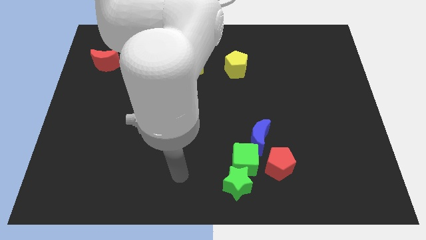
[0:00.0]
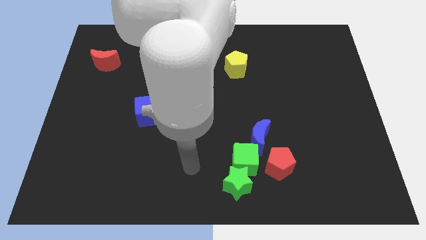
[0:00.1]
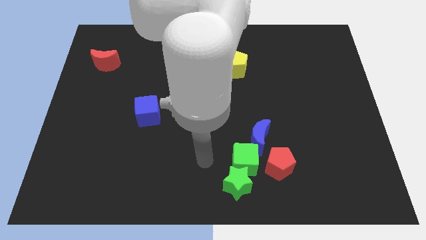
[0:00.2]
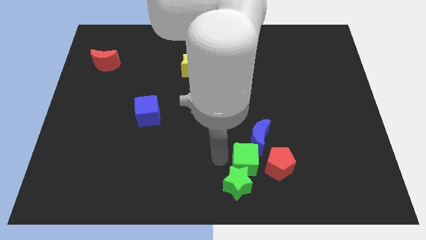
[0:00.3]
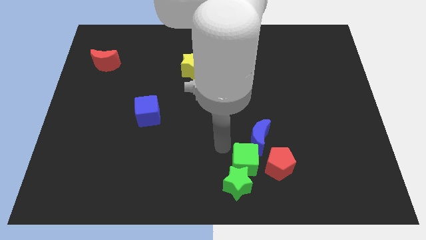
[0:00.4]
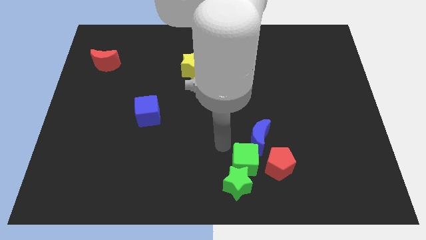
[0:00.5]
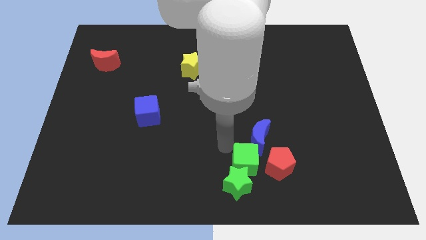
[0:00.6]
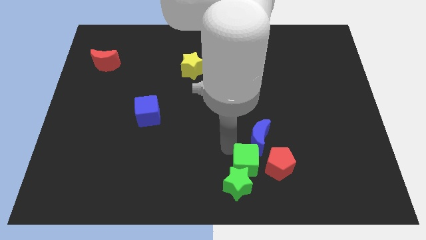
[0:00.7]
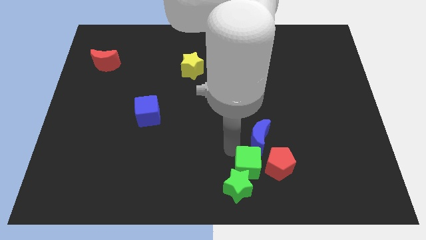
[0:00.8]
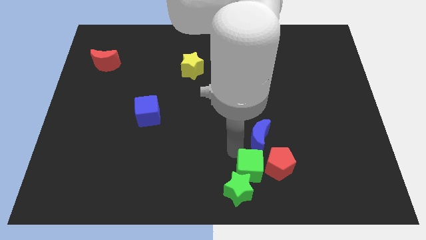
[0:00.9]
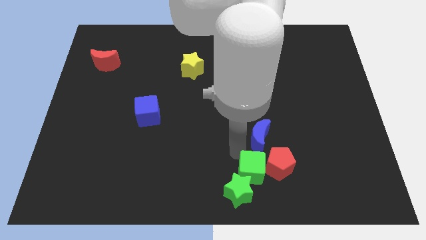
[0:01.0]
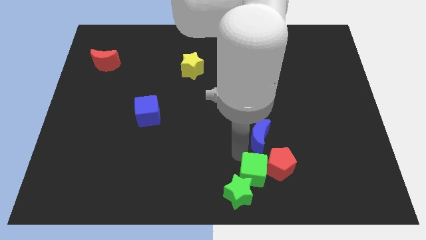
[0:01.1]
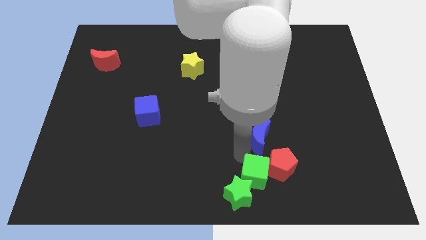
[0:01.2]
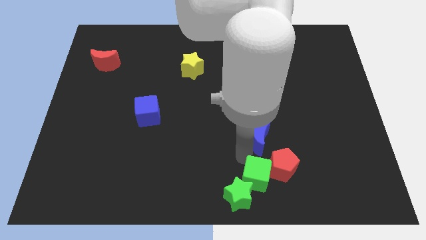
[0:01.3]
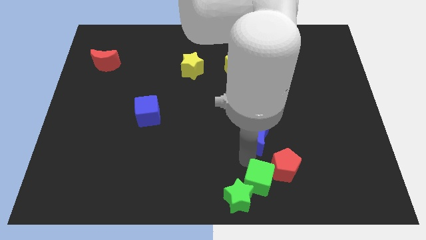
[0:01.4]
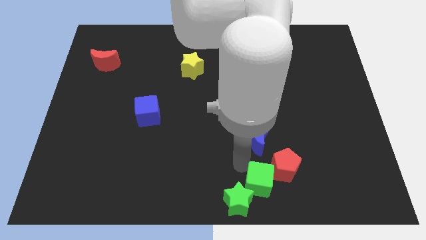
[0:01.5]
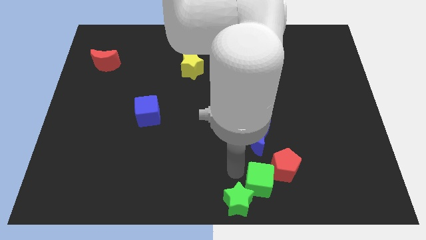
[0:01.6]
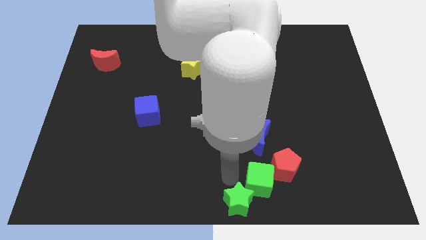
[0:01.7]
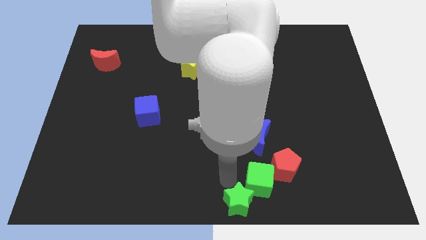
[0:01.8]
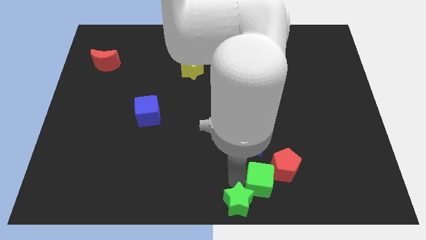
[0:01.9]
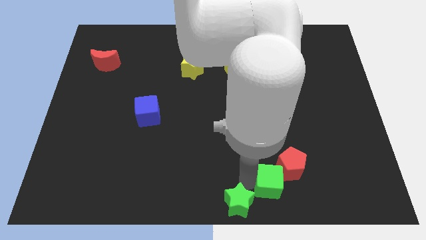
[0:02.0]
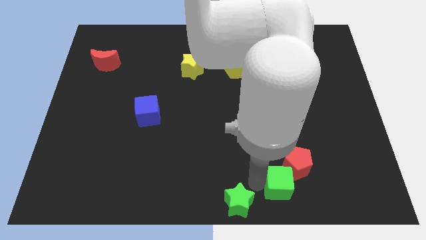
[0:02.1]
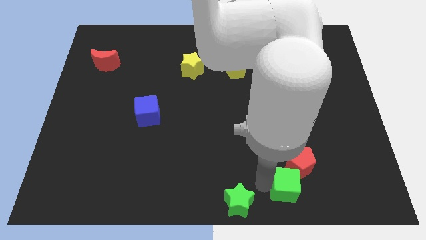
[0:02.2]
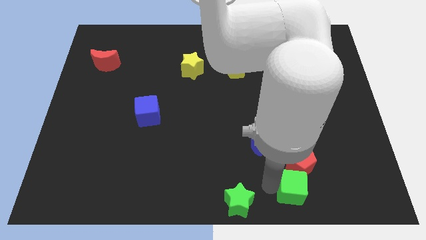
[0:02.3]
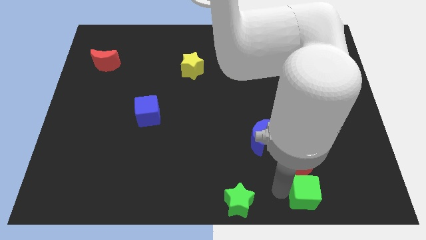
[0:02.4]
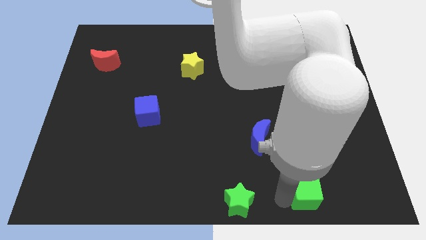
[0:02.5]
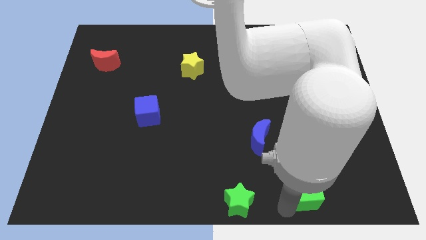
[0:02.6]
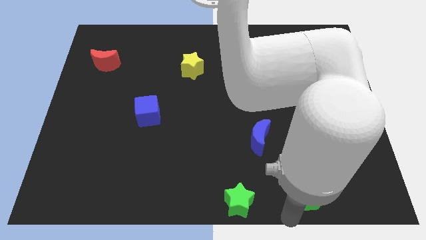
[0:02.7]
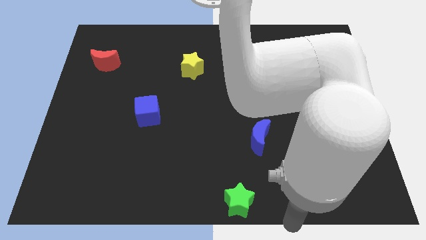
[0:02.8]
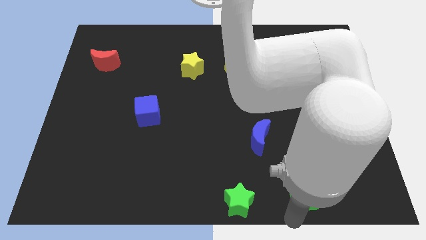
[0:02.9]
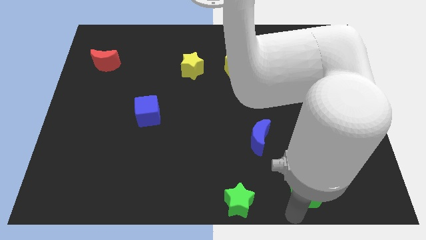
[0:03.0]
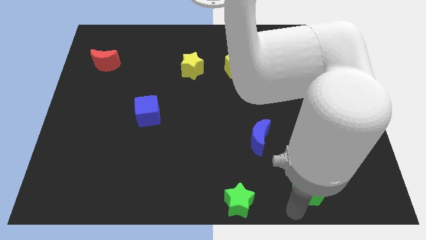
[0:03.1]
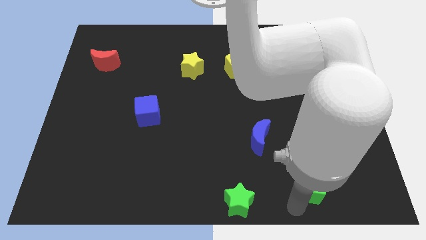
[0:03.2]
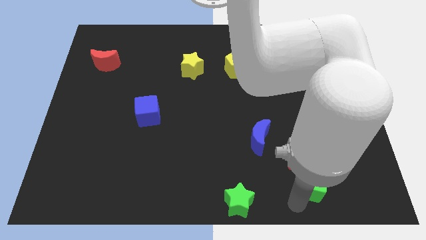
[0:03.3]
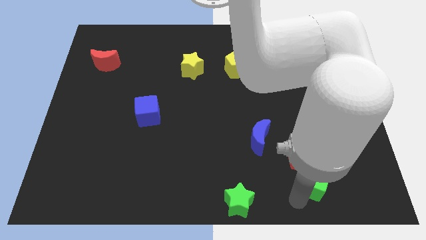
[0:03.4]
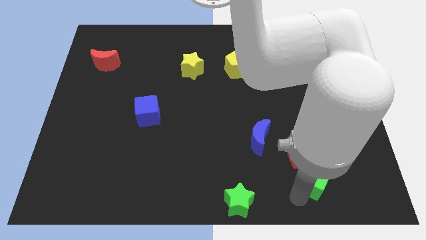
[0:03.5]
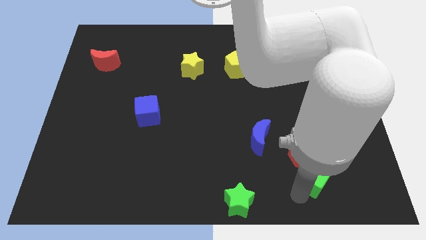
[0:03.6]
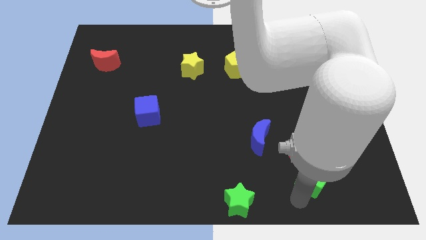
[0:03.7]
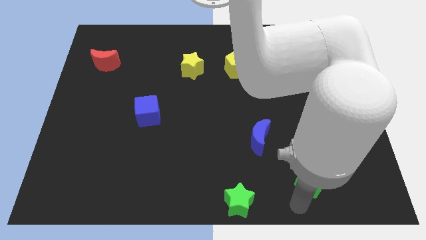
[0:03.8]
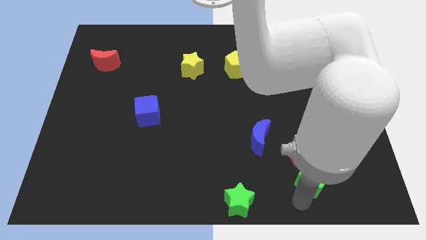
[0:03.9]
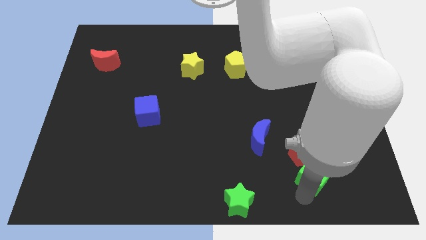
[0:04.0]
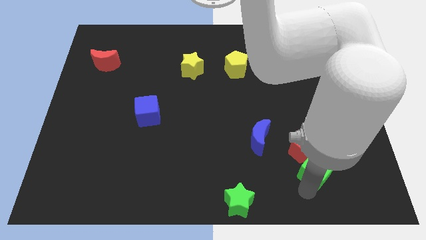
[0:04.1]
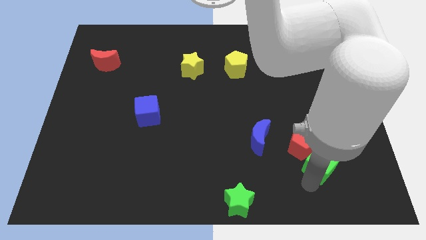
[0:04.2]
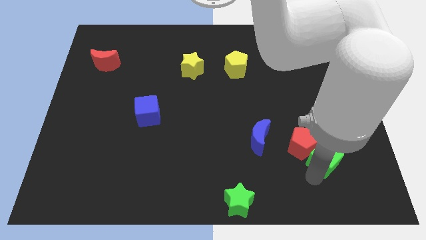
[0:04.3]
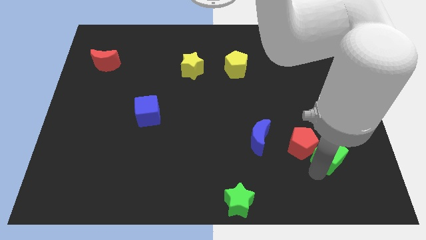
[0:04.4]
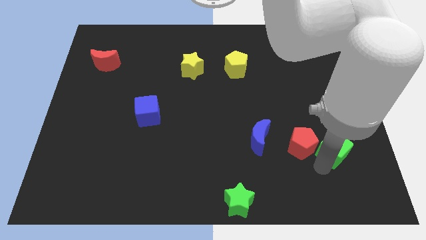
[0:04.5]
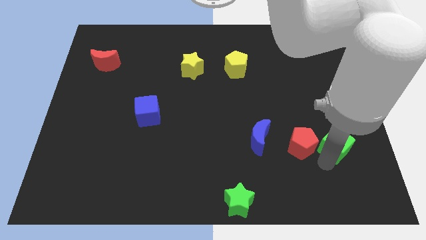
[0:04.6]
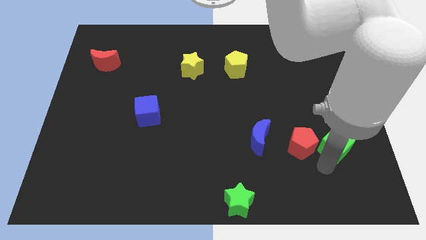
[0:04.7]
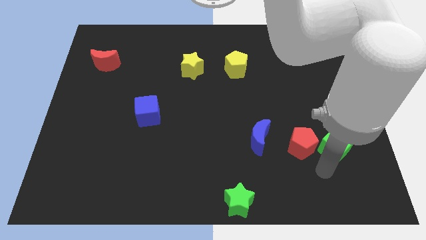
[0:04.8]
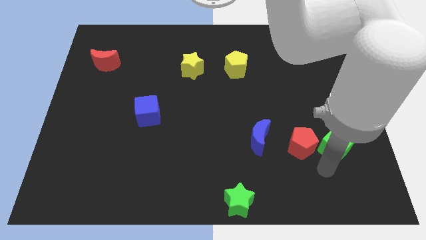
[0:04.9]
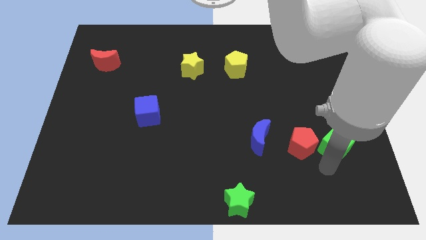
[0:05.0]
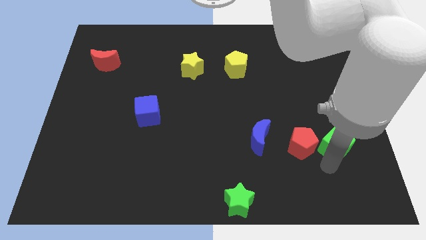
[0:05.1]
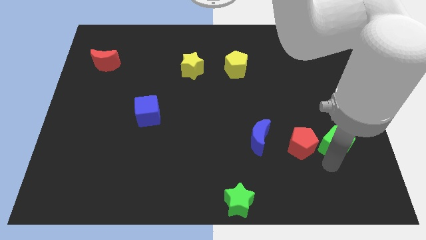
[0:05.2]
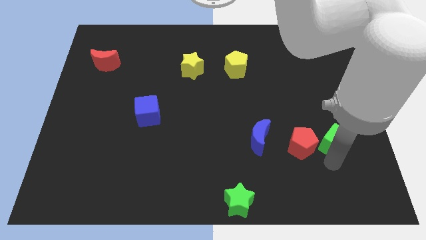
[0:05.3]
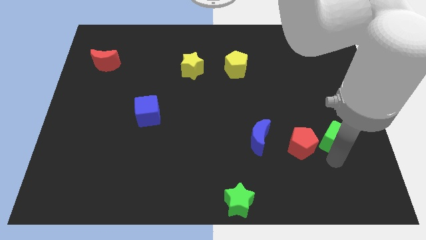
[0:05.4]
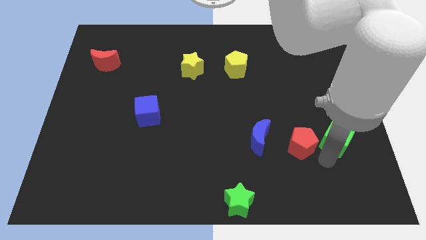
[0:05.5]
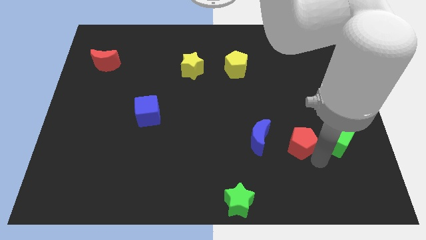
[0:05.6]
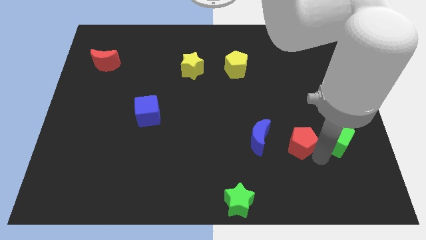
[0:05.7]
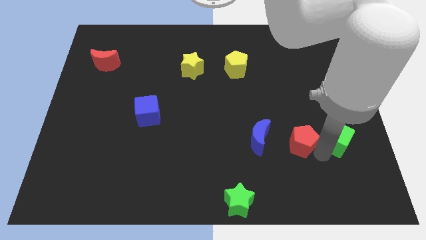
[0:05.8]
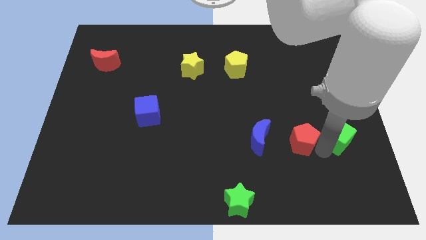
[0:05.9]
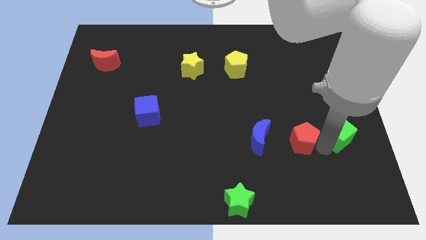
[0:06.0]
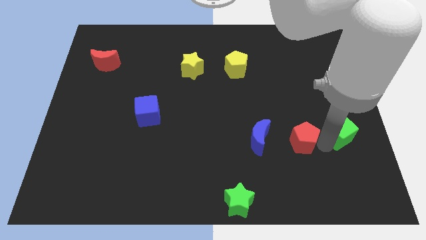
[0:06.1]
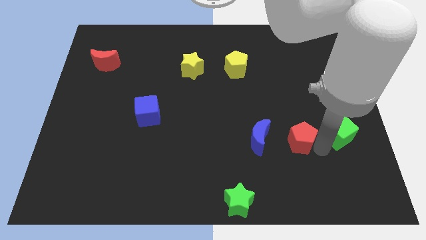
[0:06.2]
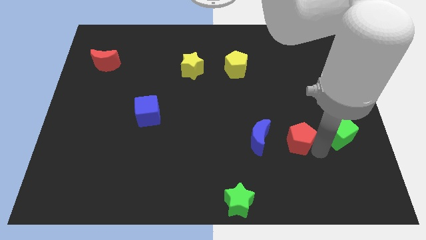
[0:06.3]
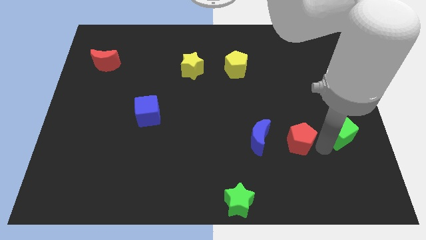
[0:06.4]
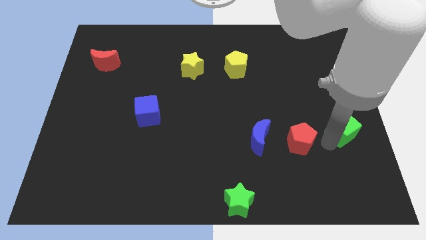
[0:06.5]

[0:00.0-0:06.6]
put the green cube to the center right
